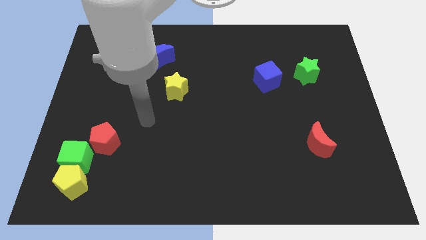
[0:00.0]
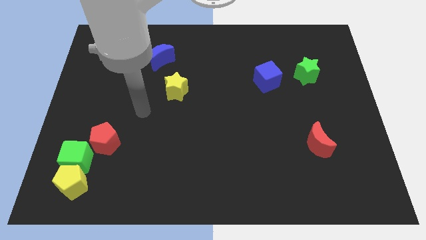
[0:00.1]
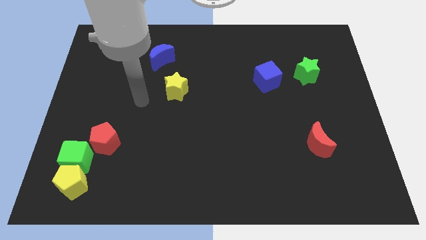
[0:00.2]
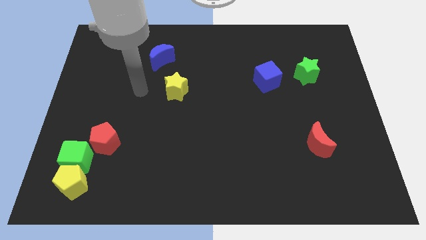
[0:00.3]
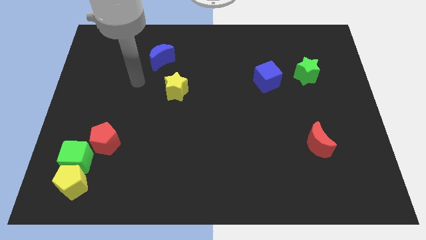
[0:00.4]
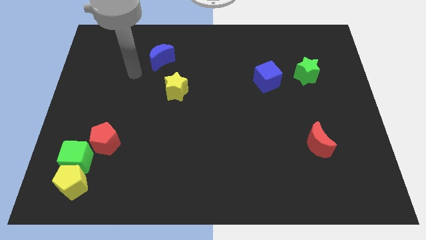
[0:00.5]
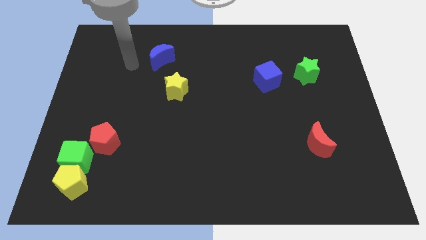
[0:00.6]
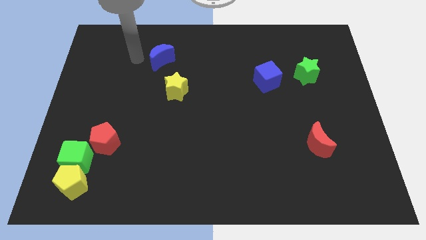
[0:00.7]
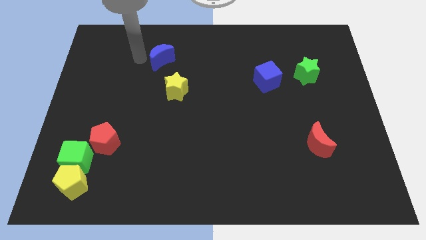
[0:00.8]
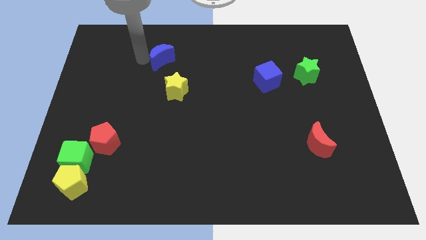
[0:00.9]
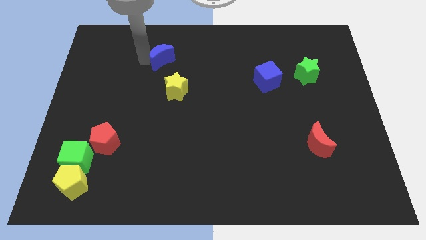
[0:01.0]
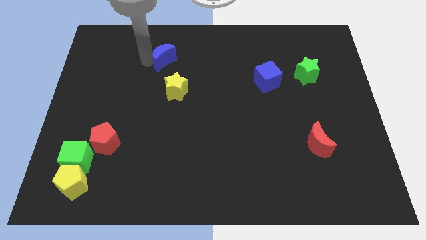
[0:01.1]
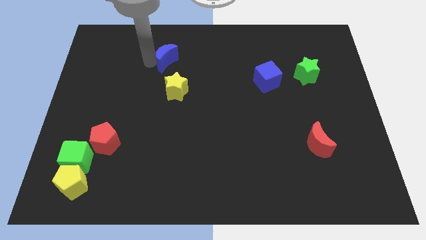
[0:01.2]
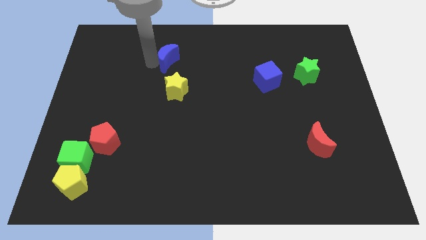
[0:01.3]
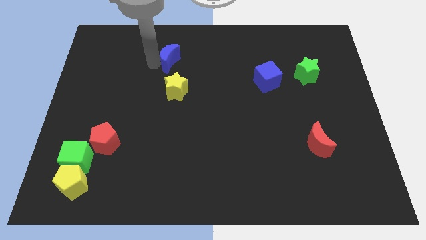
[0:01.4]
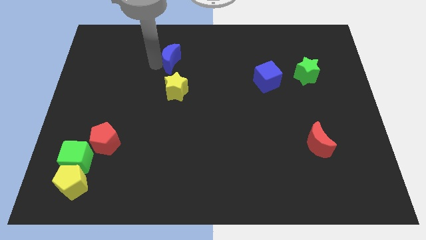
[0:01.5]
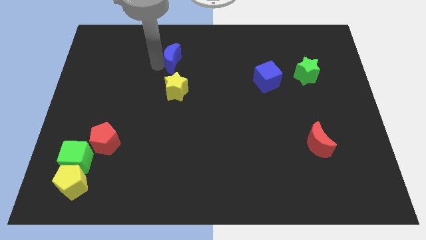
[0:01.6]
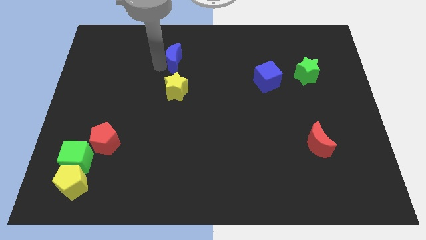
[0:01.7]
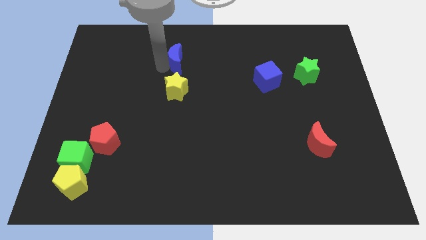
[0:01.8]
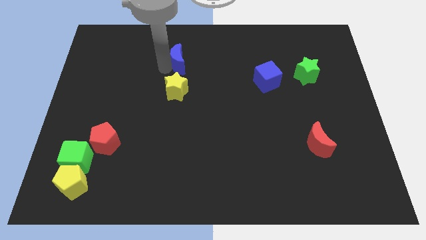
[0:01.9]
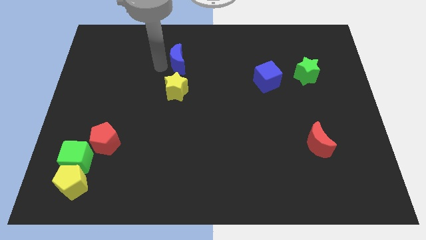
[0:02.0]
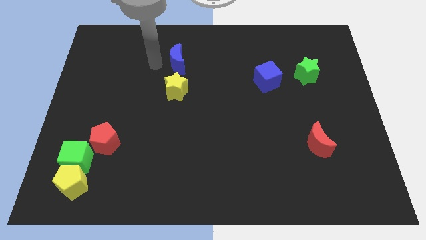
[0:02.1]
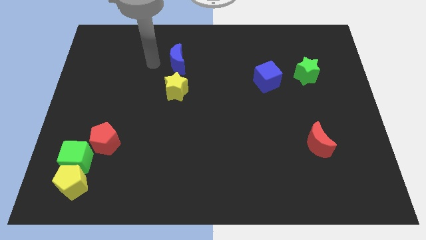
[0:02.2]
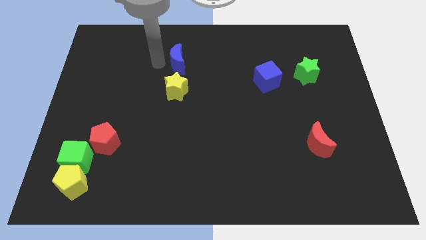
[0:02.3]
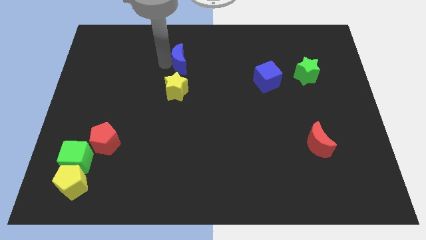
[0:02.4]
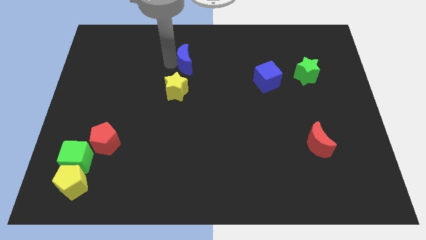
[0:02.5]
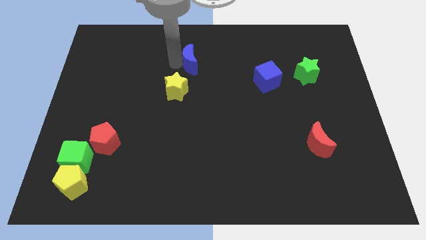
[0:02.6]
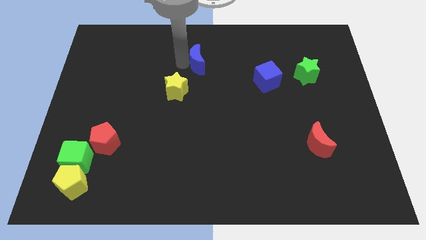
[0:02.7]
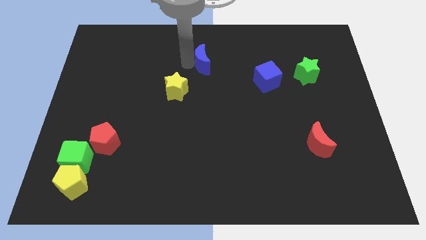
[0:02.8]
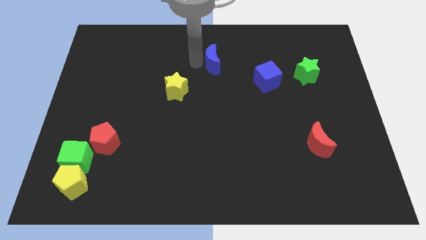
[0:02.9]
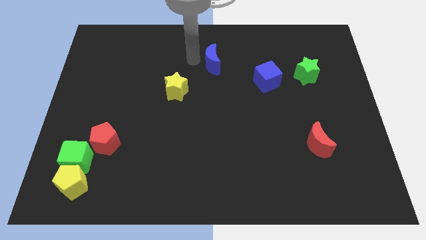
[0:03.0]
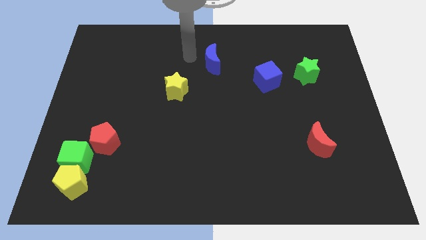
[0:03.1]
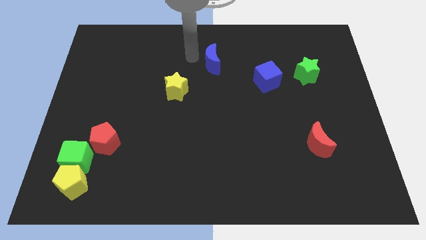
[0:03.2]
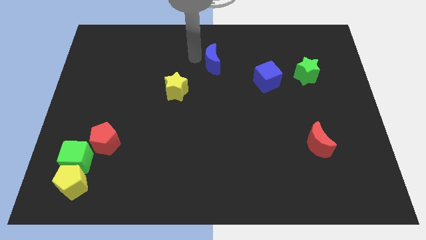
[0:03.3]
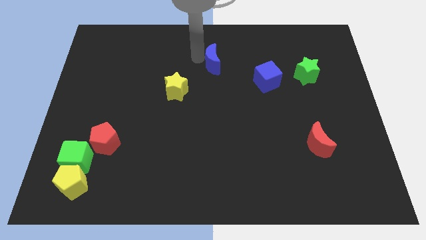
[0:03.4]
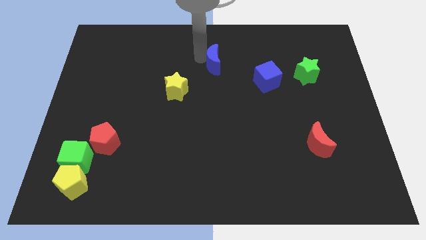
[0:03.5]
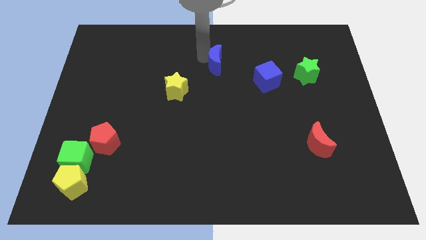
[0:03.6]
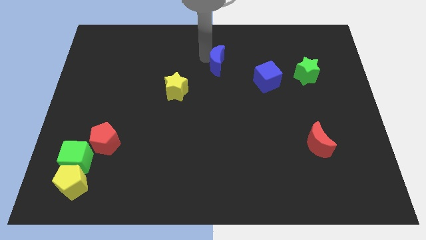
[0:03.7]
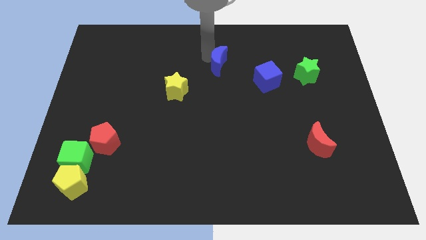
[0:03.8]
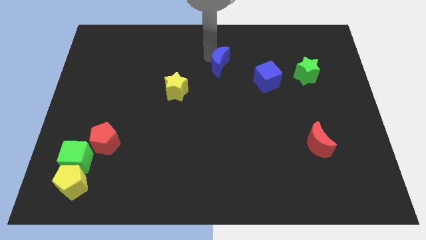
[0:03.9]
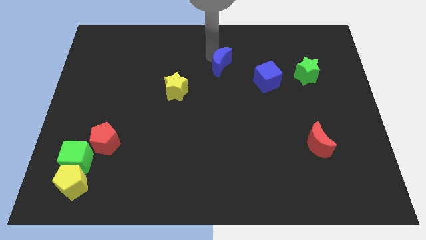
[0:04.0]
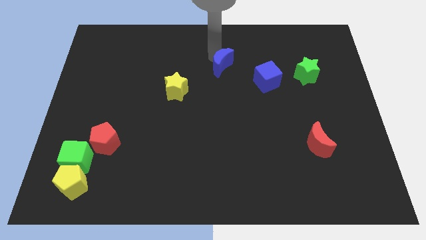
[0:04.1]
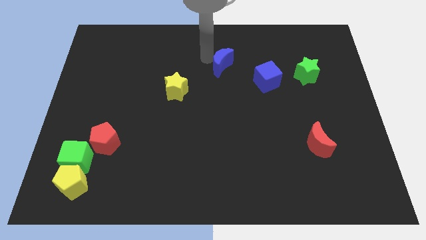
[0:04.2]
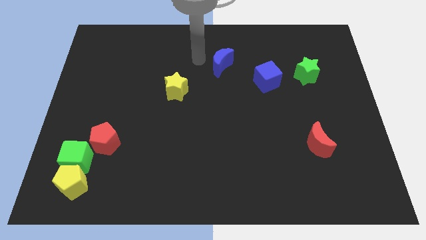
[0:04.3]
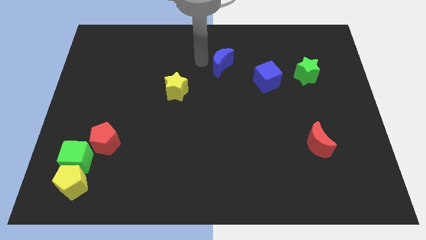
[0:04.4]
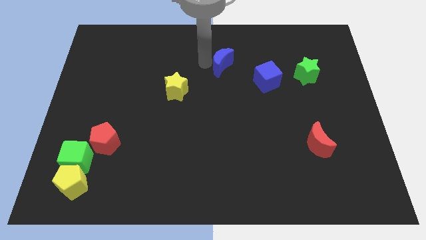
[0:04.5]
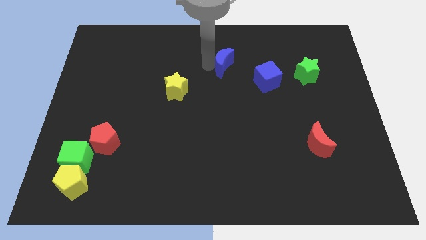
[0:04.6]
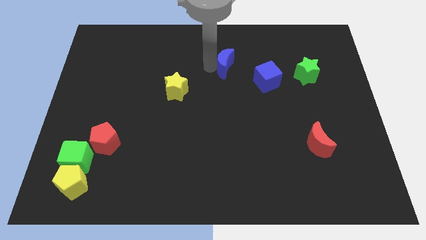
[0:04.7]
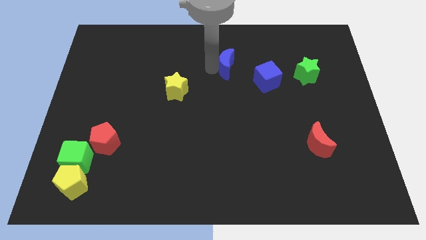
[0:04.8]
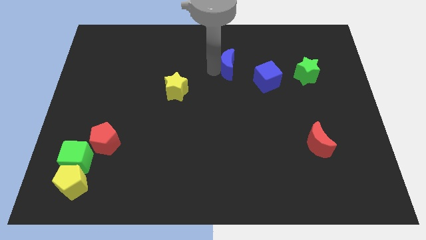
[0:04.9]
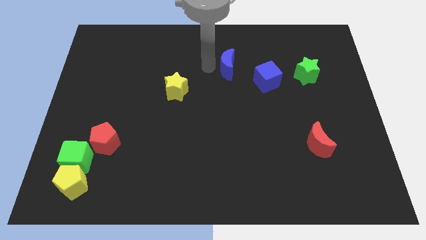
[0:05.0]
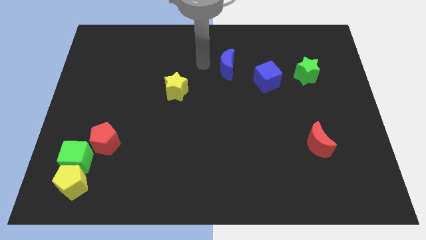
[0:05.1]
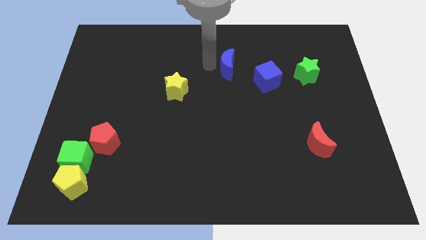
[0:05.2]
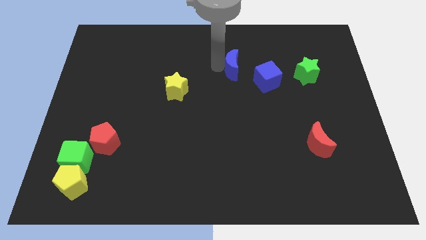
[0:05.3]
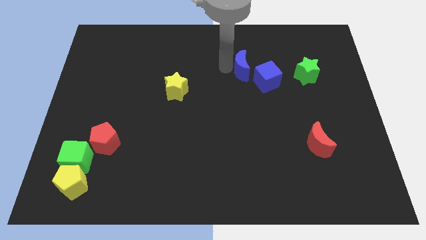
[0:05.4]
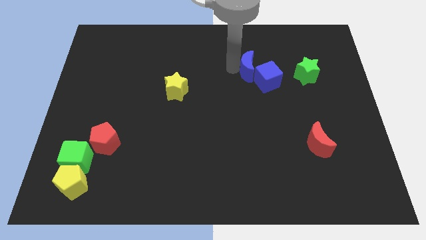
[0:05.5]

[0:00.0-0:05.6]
move the blue moon to the left of the green star

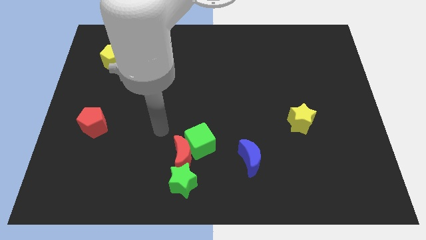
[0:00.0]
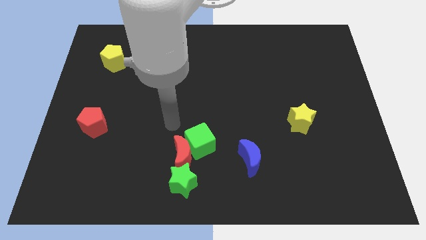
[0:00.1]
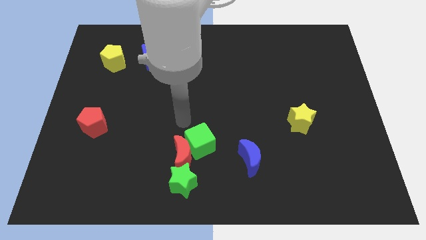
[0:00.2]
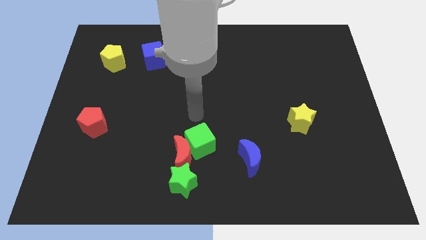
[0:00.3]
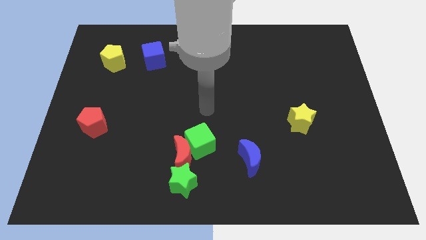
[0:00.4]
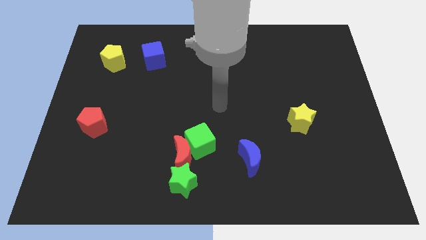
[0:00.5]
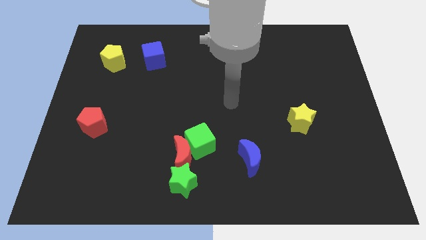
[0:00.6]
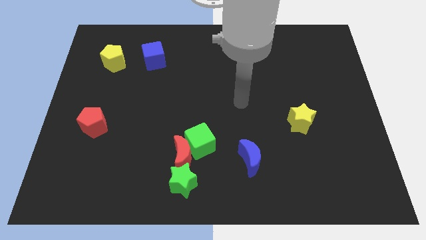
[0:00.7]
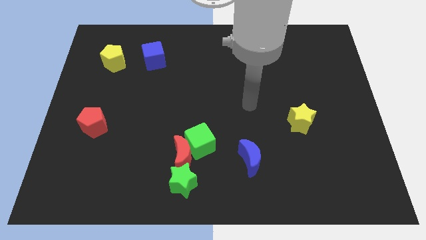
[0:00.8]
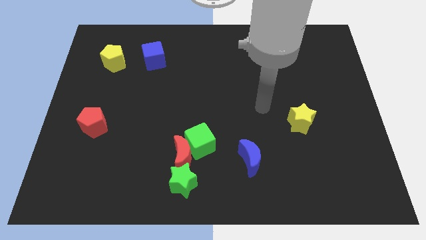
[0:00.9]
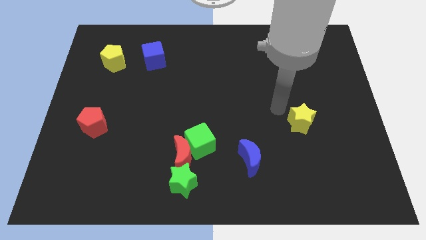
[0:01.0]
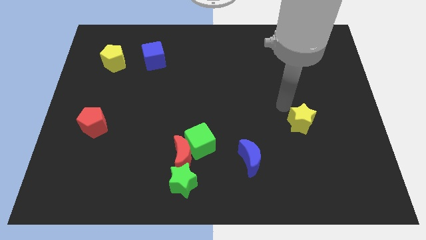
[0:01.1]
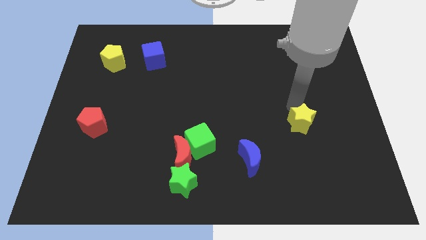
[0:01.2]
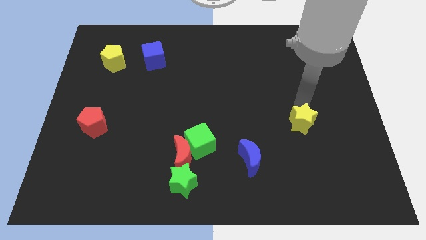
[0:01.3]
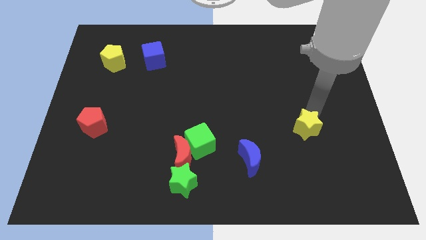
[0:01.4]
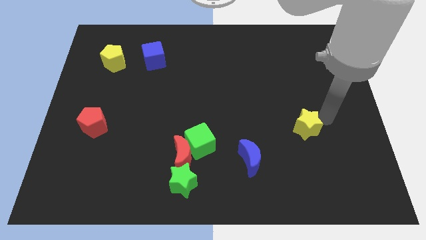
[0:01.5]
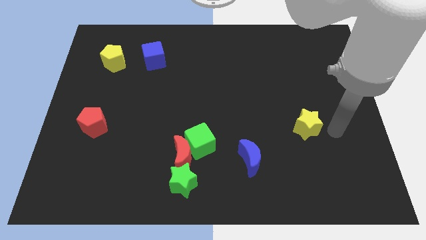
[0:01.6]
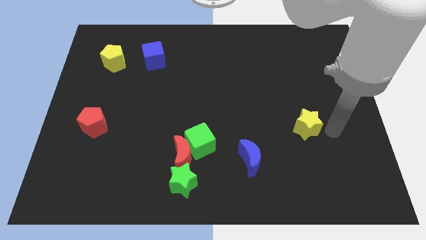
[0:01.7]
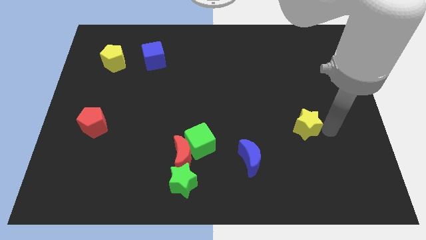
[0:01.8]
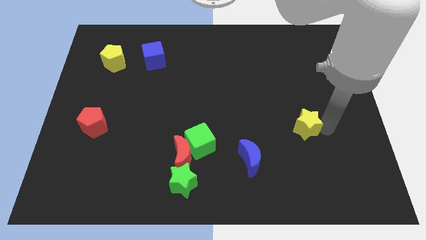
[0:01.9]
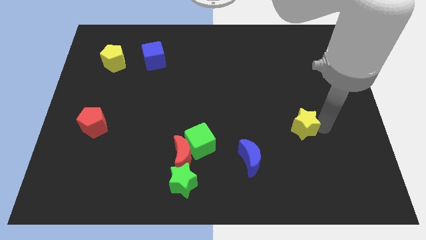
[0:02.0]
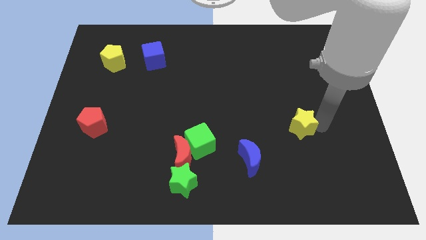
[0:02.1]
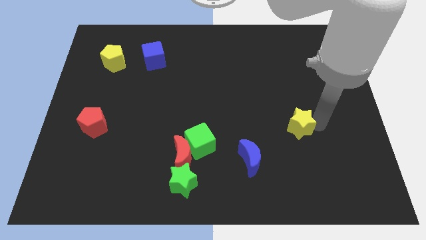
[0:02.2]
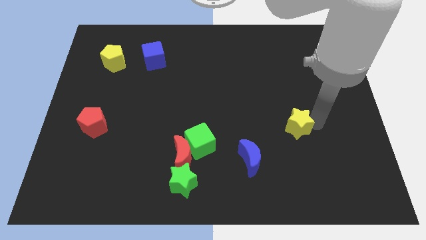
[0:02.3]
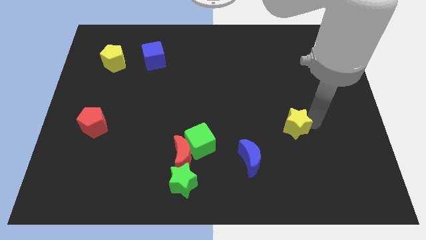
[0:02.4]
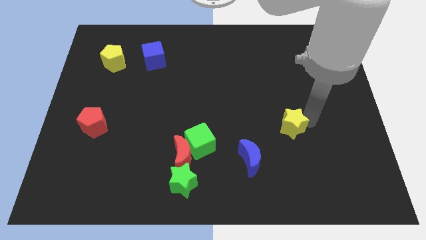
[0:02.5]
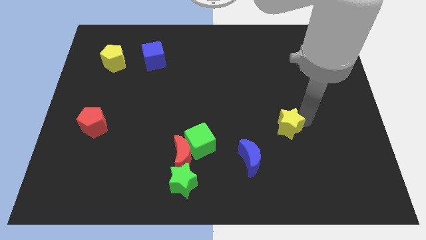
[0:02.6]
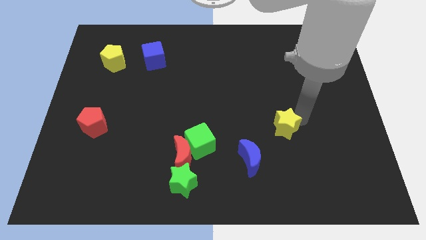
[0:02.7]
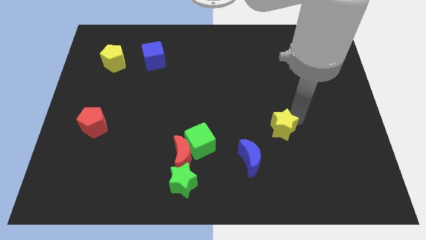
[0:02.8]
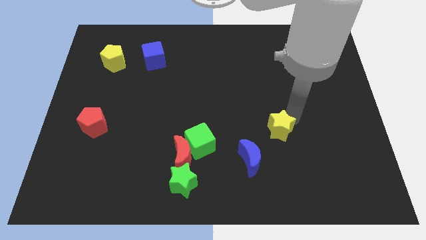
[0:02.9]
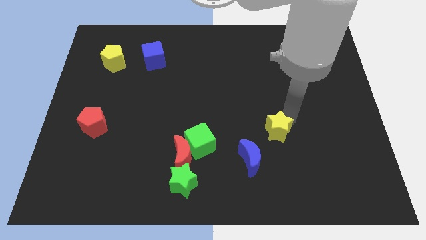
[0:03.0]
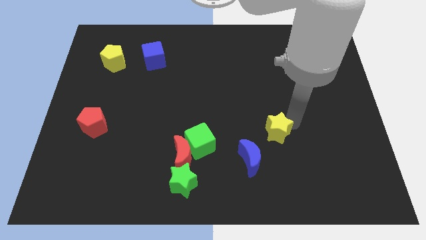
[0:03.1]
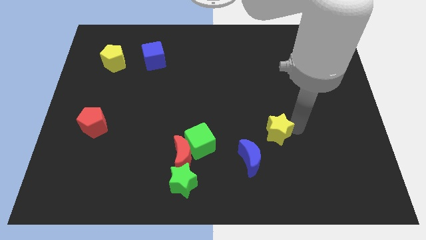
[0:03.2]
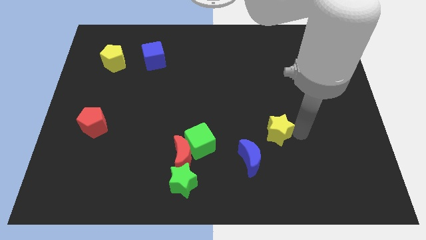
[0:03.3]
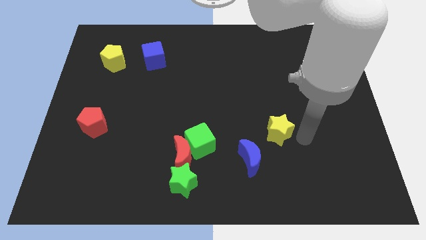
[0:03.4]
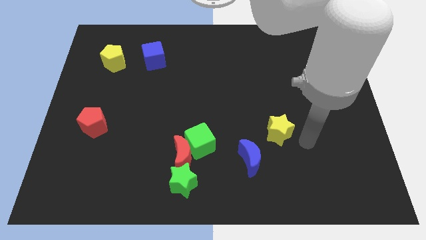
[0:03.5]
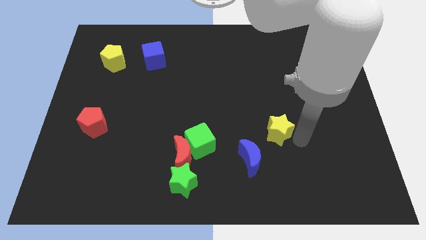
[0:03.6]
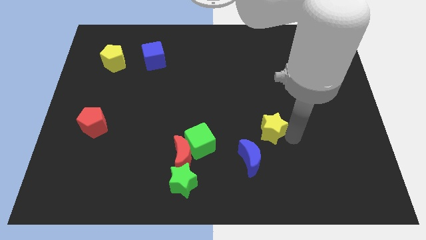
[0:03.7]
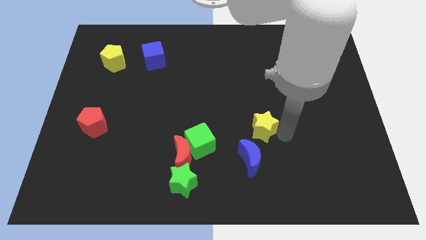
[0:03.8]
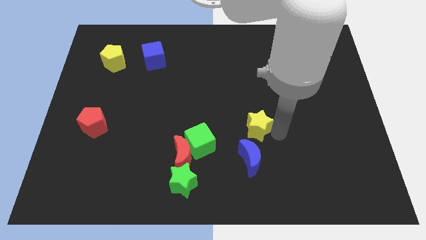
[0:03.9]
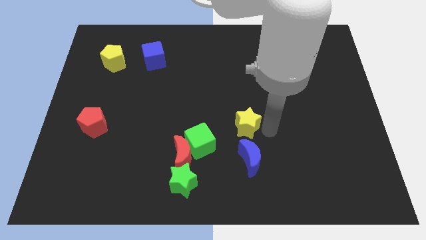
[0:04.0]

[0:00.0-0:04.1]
move the yellow star to the top right of the green cube
